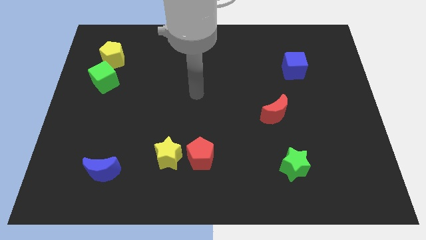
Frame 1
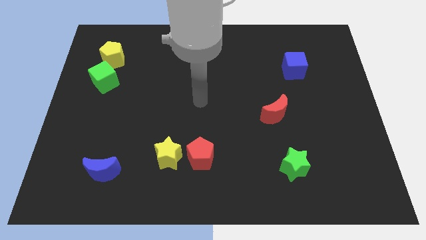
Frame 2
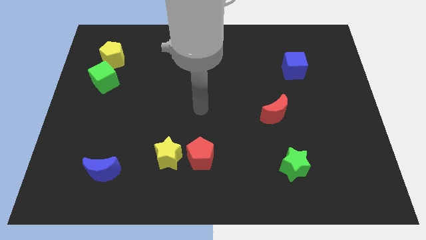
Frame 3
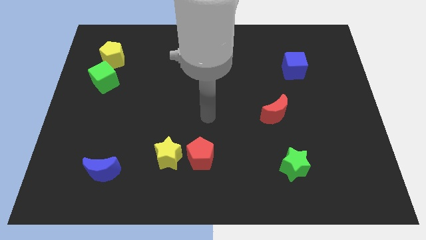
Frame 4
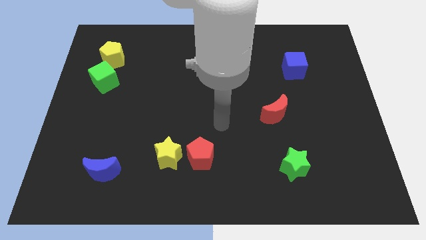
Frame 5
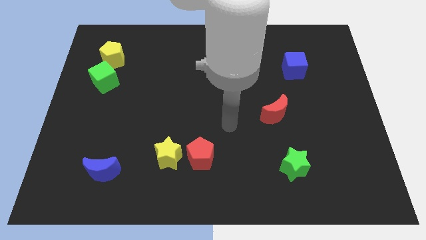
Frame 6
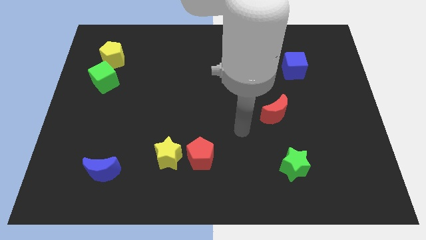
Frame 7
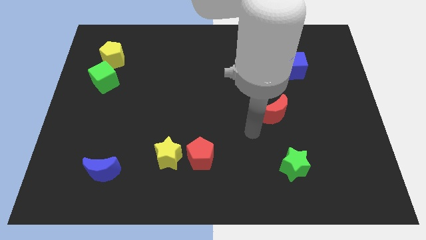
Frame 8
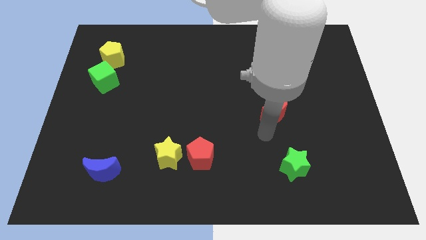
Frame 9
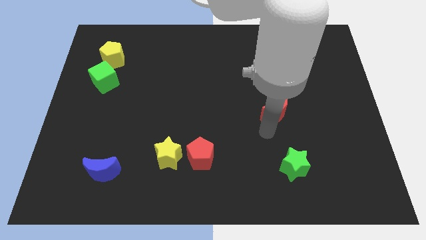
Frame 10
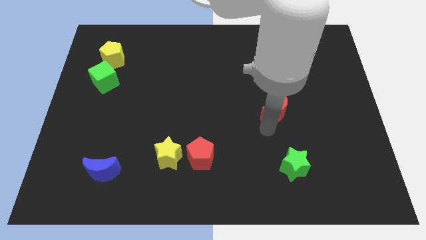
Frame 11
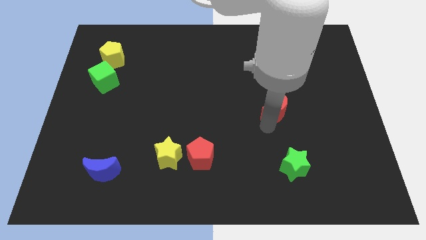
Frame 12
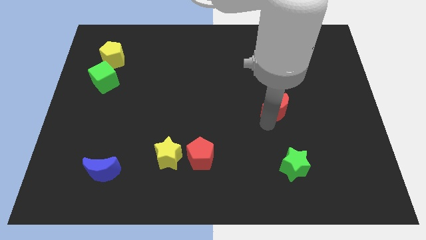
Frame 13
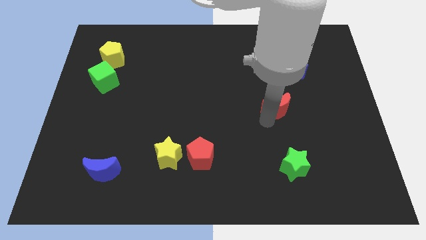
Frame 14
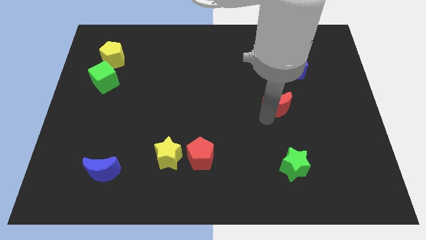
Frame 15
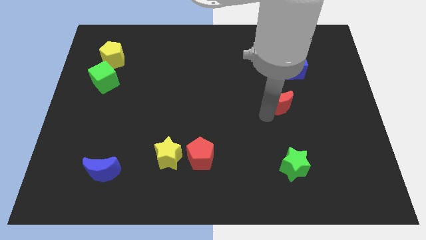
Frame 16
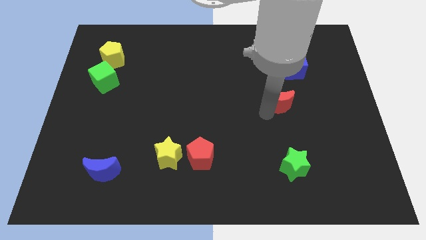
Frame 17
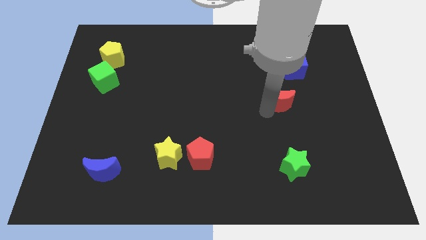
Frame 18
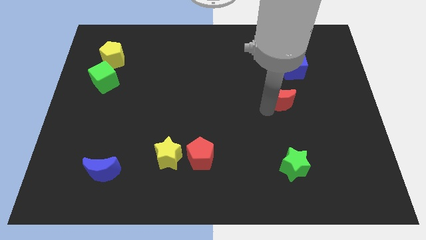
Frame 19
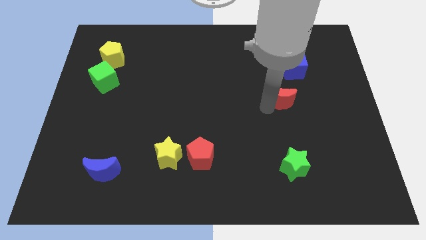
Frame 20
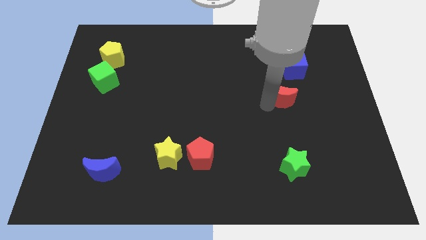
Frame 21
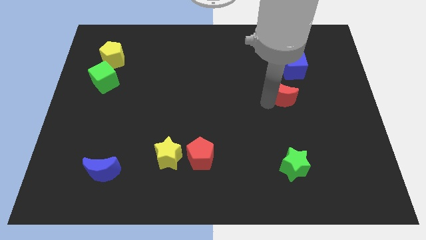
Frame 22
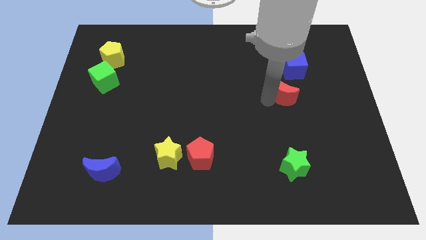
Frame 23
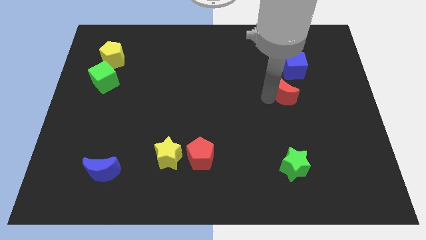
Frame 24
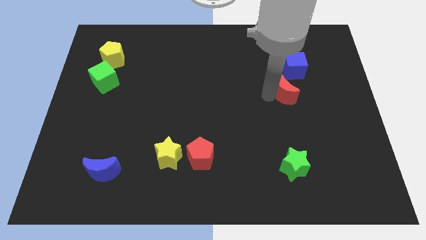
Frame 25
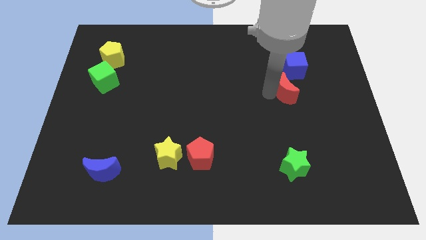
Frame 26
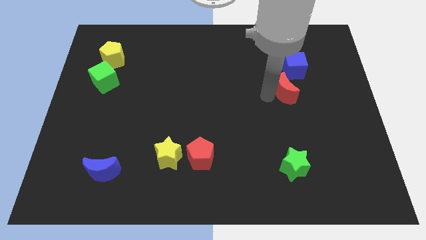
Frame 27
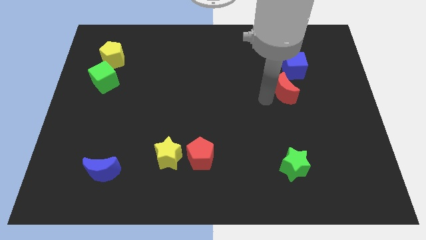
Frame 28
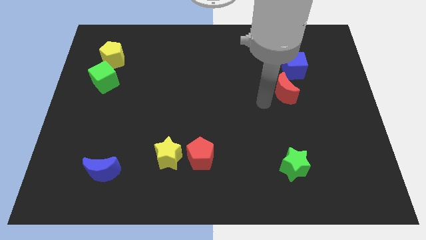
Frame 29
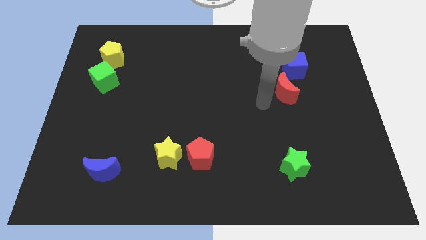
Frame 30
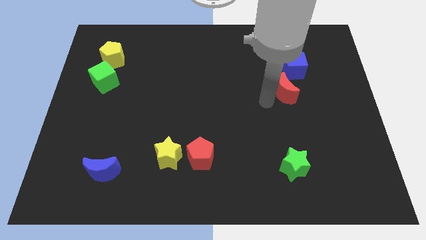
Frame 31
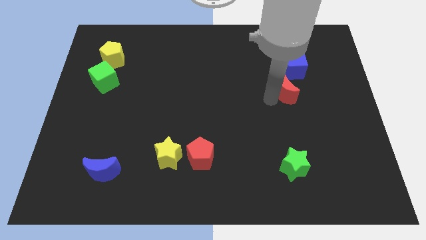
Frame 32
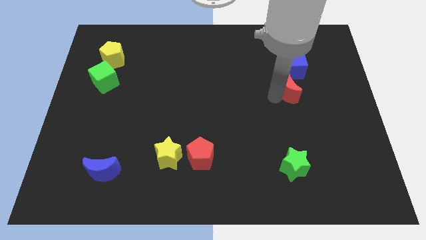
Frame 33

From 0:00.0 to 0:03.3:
slide the red moon slightly up and then to the right

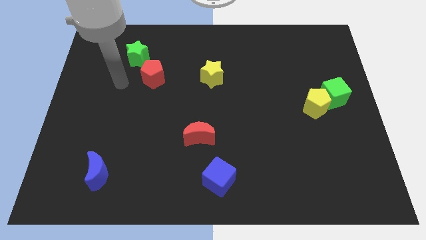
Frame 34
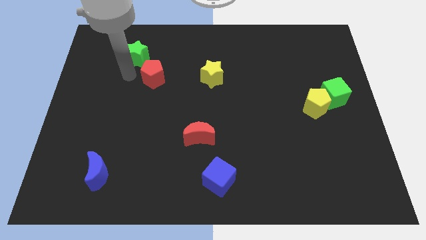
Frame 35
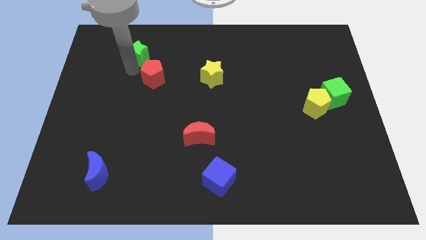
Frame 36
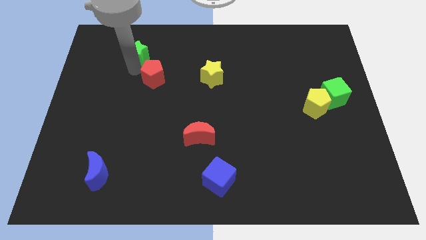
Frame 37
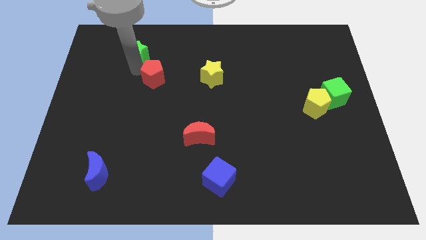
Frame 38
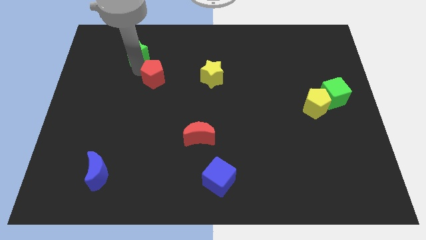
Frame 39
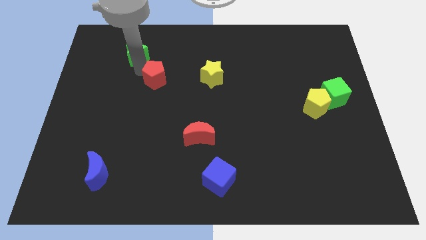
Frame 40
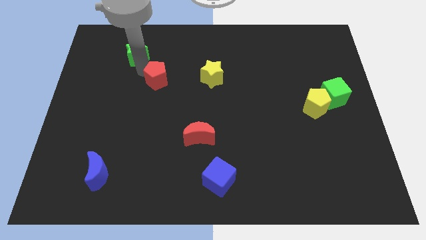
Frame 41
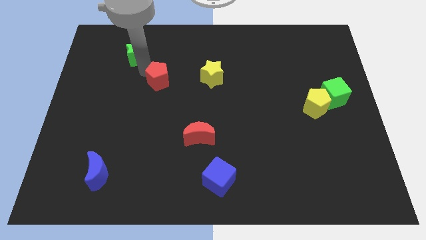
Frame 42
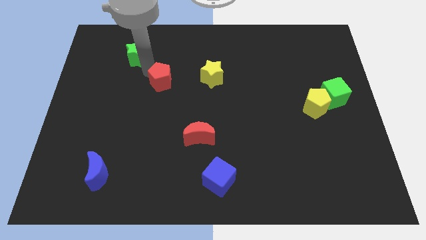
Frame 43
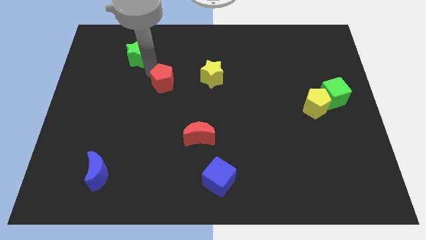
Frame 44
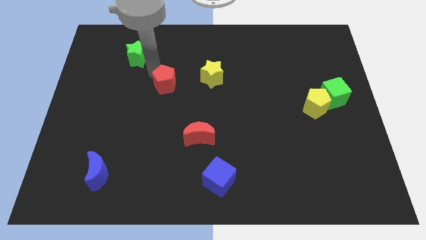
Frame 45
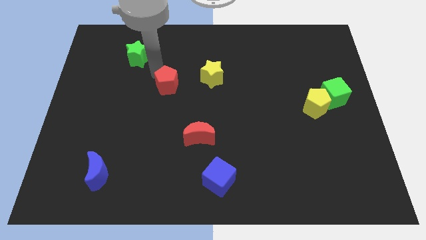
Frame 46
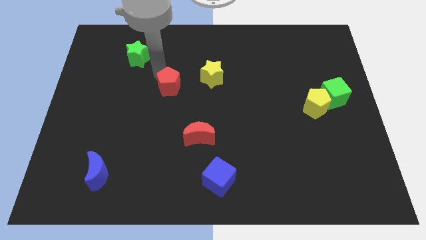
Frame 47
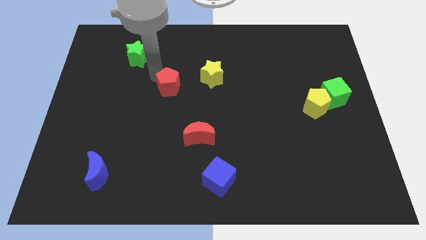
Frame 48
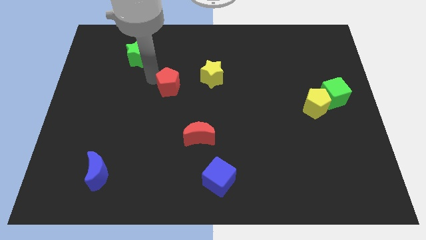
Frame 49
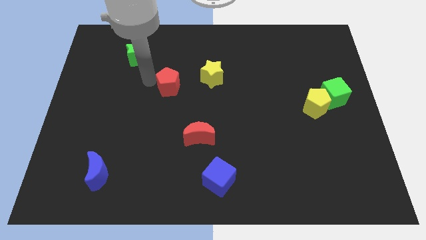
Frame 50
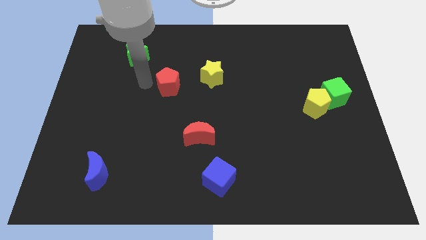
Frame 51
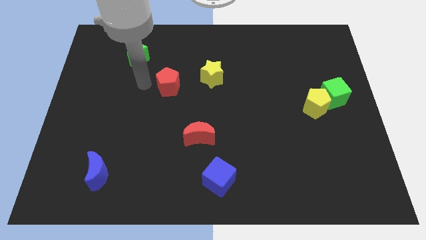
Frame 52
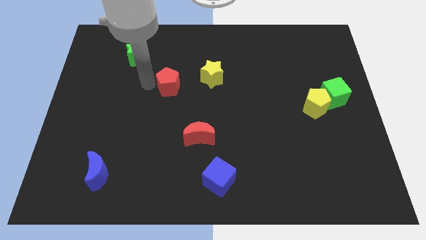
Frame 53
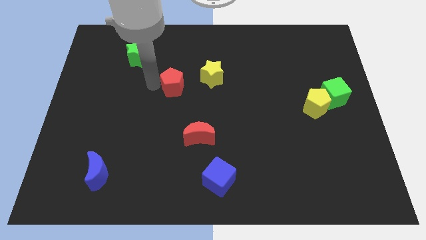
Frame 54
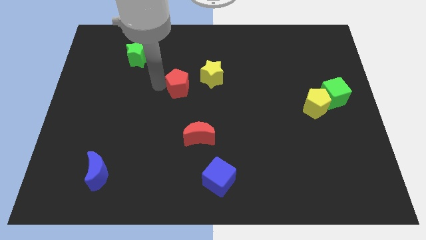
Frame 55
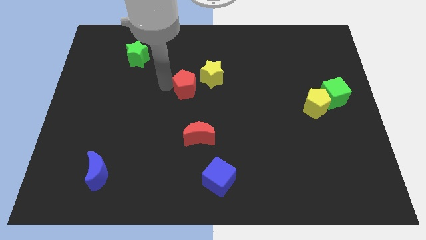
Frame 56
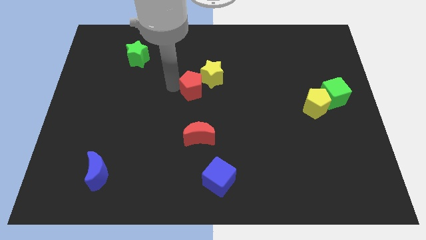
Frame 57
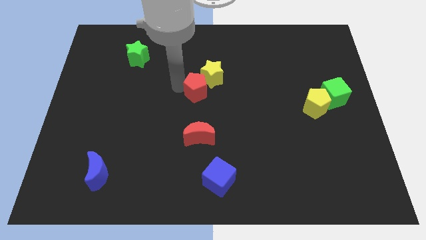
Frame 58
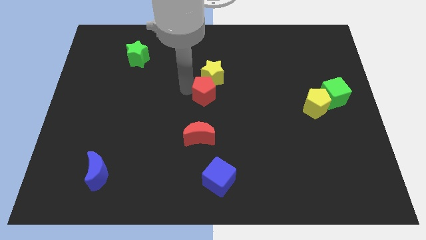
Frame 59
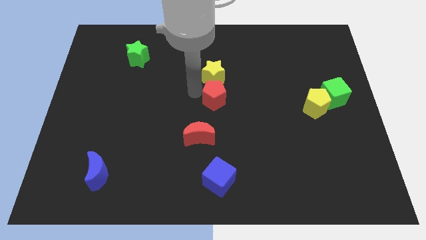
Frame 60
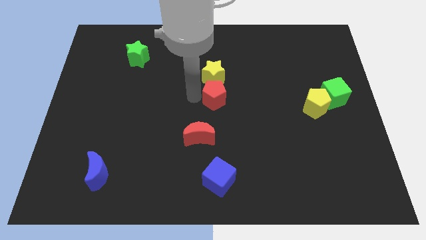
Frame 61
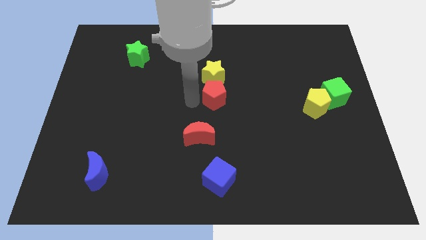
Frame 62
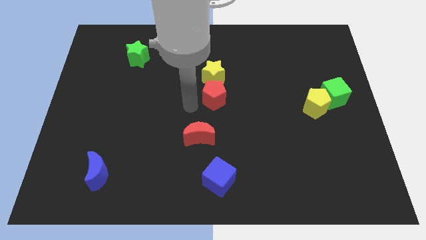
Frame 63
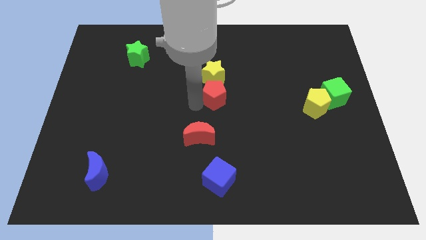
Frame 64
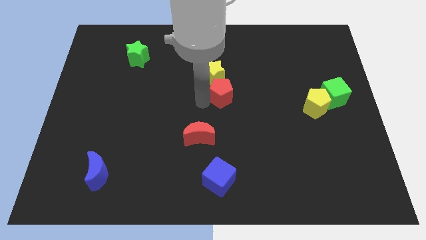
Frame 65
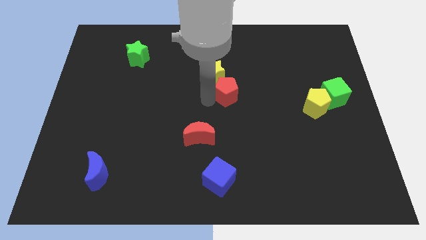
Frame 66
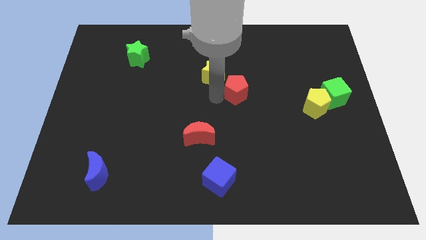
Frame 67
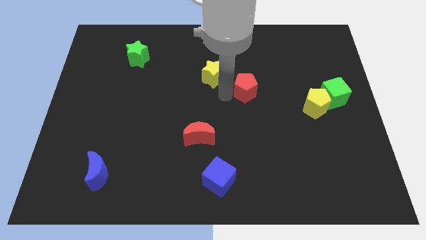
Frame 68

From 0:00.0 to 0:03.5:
slide the red pentagon right

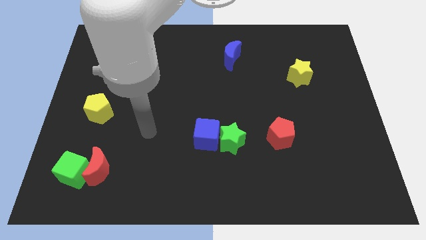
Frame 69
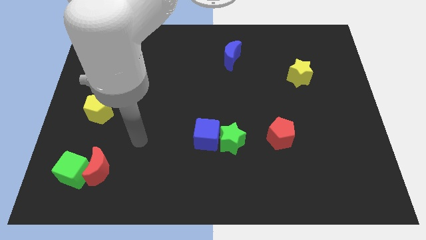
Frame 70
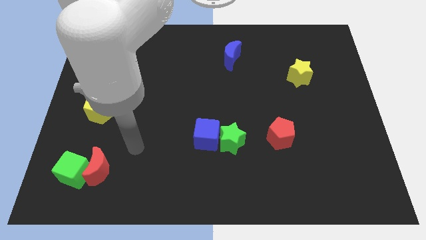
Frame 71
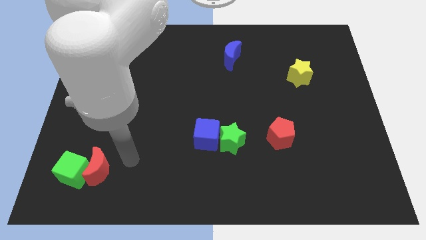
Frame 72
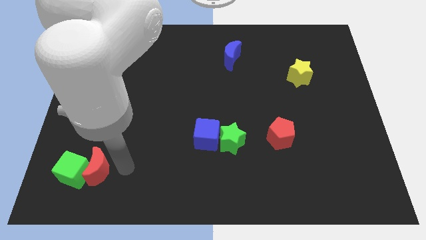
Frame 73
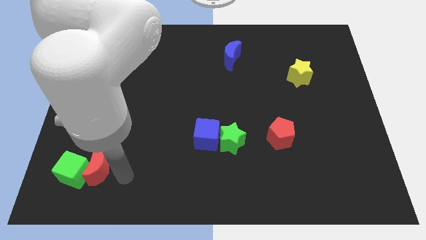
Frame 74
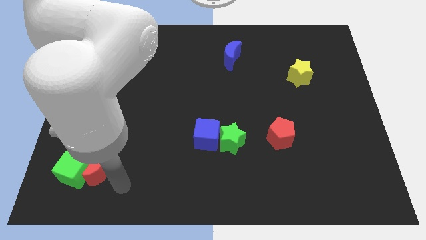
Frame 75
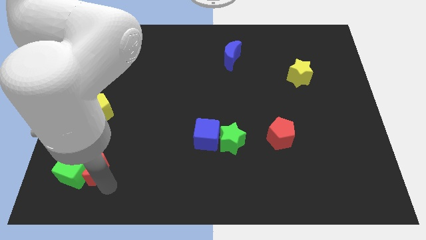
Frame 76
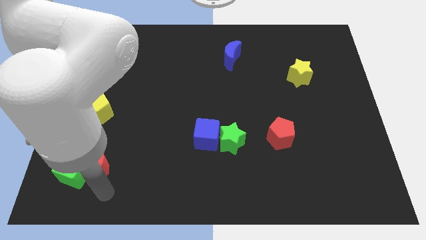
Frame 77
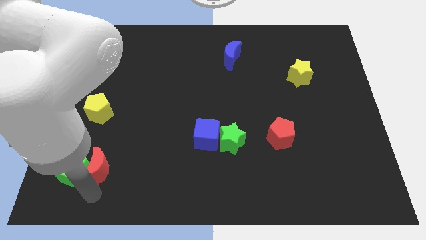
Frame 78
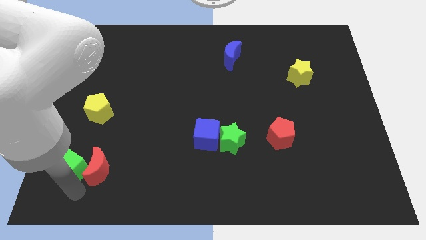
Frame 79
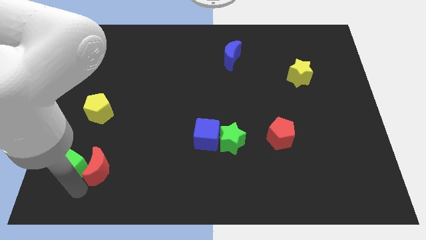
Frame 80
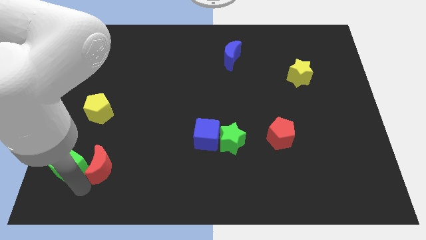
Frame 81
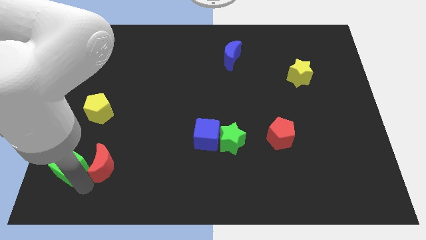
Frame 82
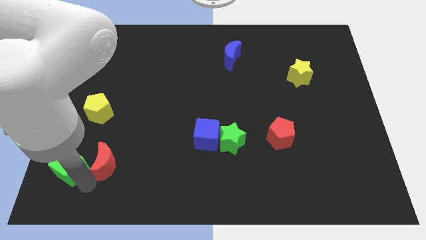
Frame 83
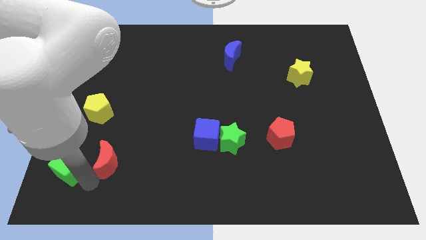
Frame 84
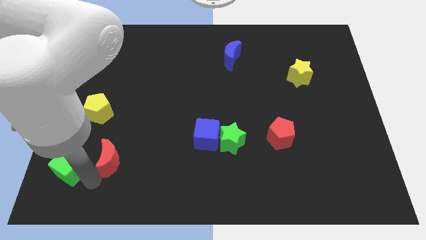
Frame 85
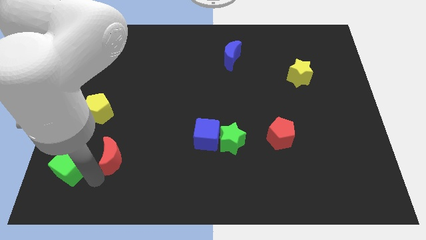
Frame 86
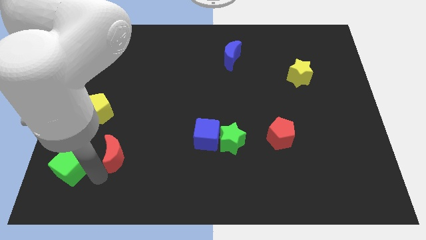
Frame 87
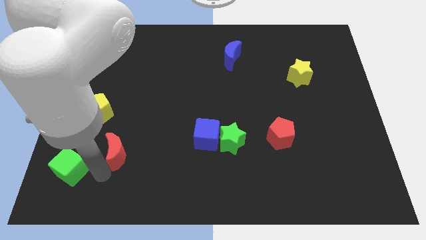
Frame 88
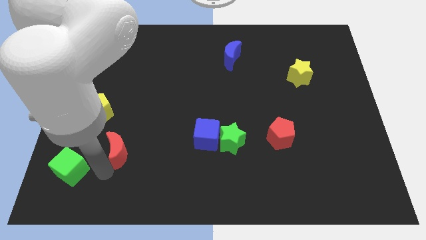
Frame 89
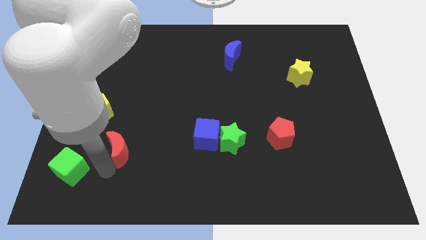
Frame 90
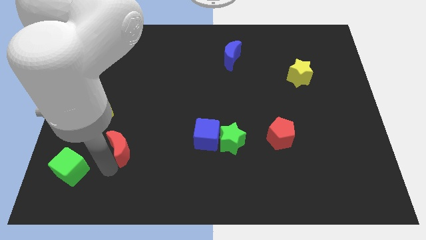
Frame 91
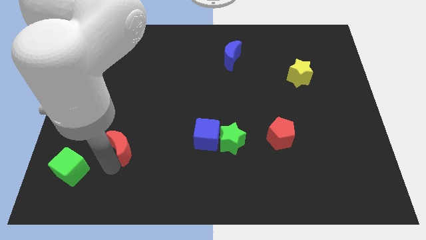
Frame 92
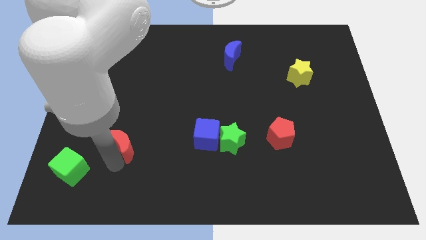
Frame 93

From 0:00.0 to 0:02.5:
slightly push the red moon diagonally up and right
